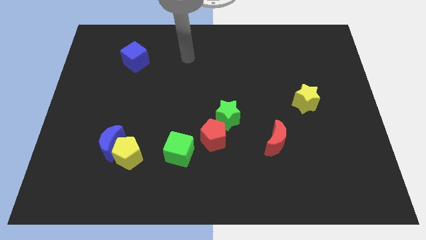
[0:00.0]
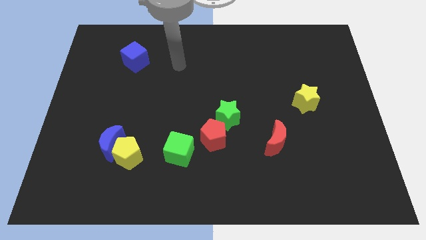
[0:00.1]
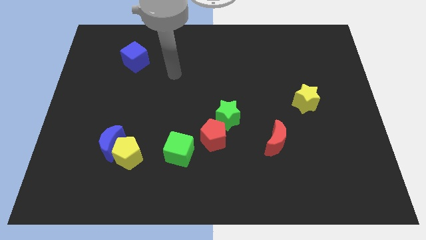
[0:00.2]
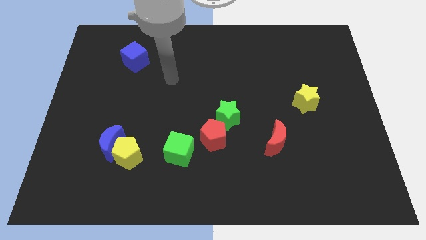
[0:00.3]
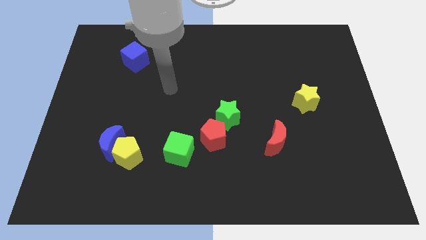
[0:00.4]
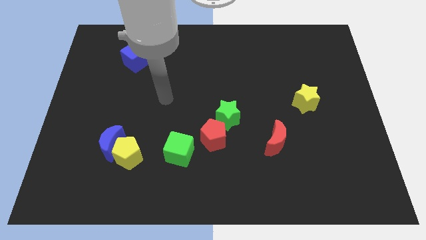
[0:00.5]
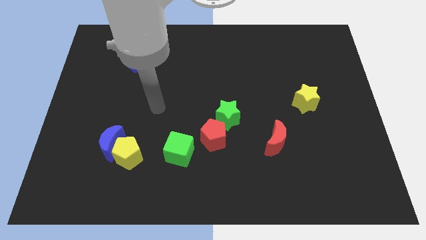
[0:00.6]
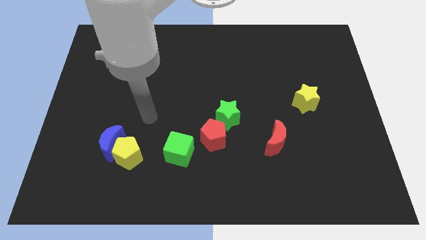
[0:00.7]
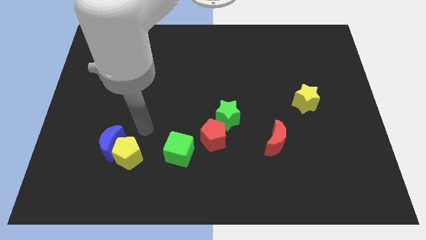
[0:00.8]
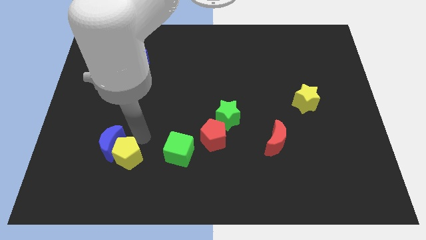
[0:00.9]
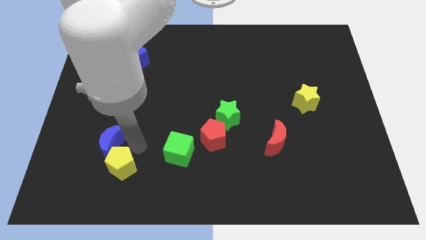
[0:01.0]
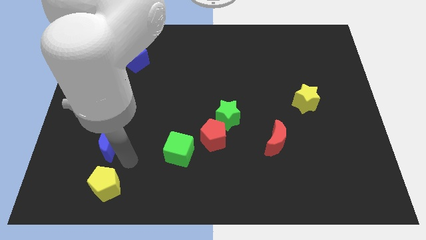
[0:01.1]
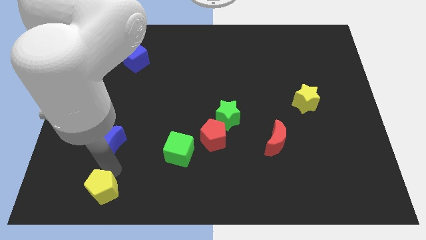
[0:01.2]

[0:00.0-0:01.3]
move the blue moon away from the yellow pentagon

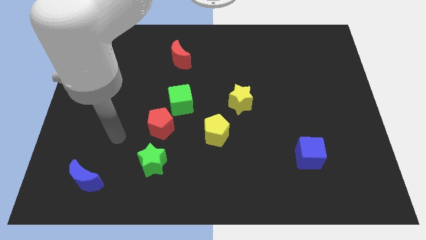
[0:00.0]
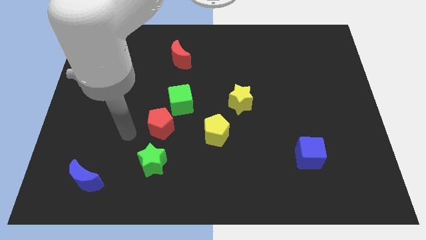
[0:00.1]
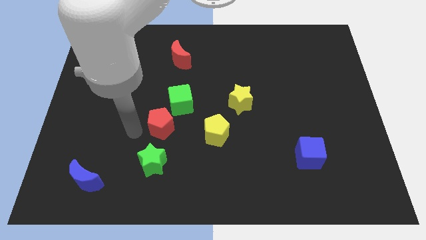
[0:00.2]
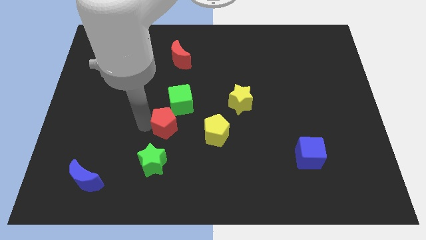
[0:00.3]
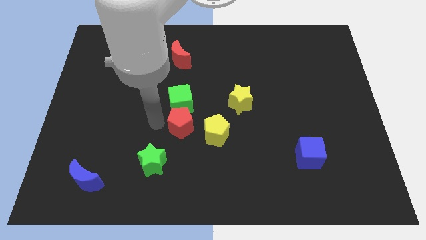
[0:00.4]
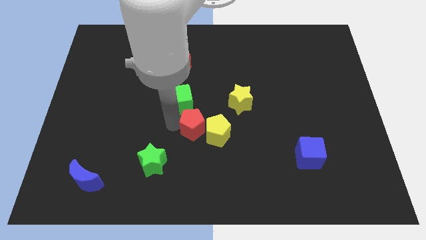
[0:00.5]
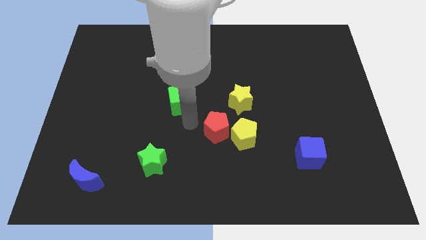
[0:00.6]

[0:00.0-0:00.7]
pull the green cube apart from the red pentagon

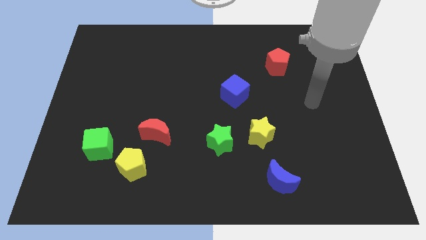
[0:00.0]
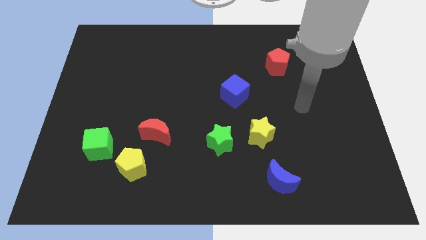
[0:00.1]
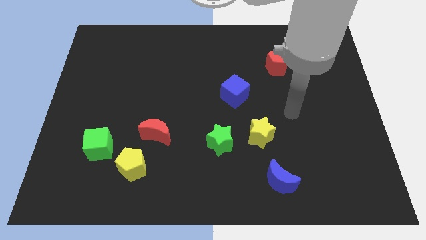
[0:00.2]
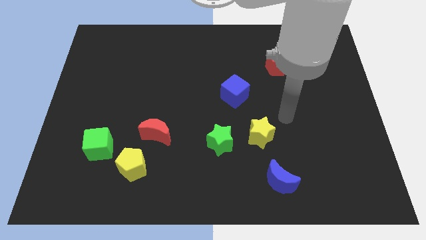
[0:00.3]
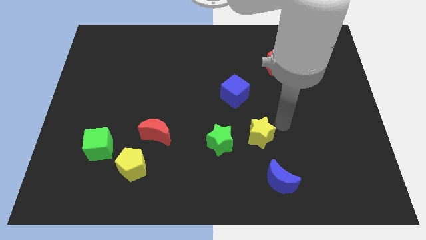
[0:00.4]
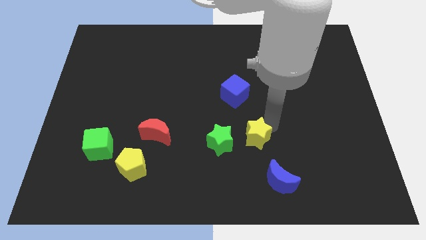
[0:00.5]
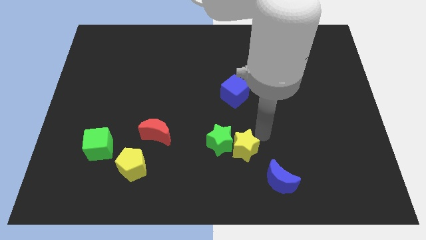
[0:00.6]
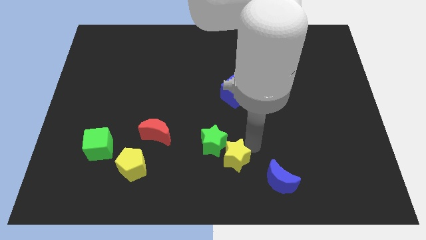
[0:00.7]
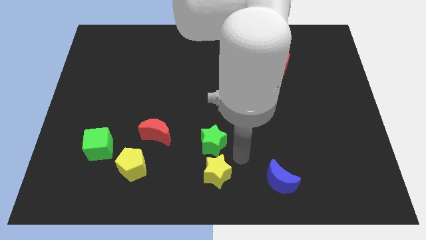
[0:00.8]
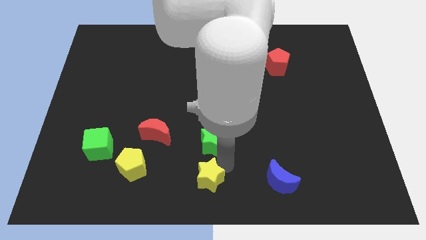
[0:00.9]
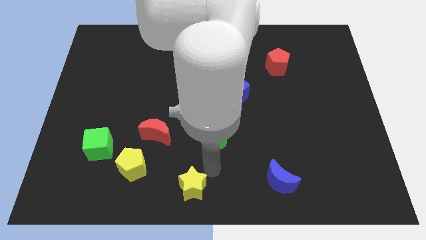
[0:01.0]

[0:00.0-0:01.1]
move the green star away from the yellow star

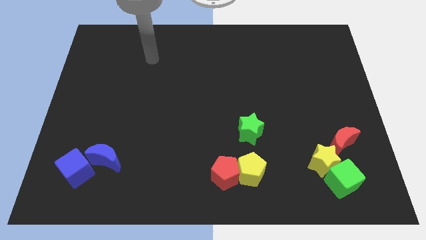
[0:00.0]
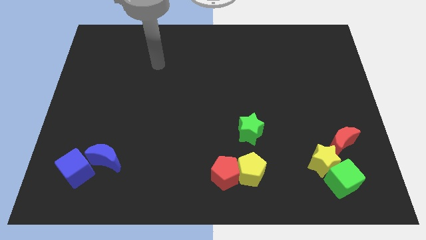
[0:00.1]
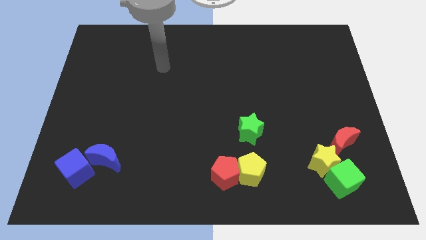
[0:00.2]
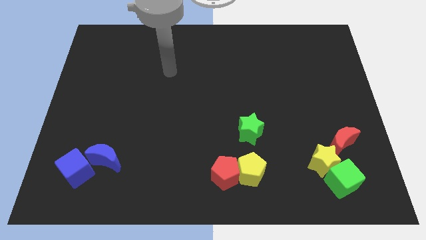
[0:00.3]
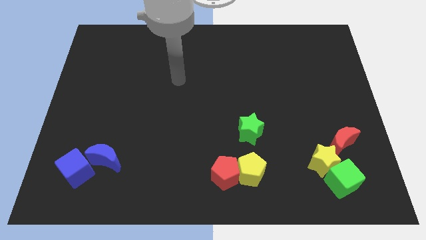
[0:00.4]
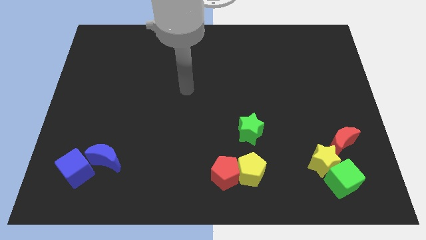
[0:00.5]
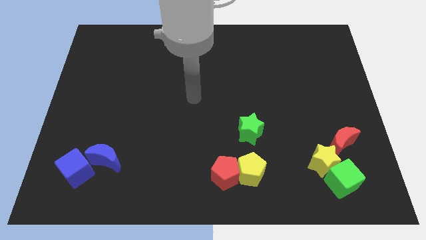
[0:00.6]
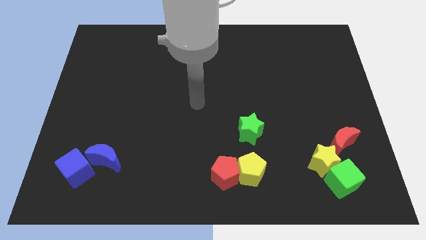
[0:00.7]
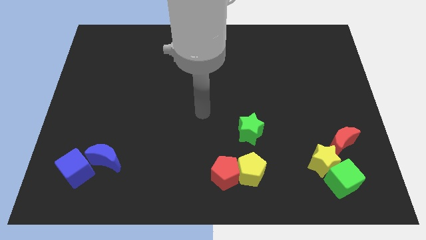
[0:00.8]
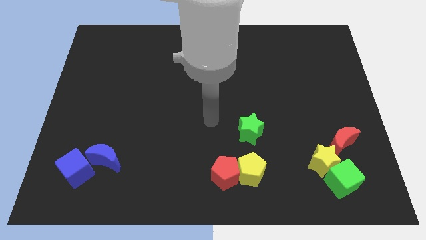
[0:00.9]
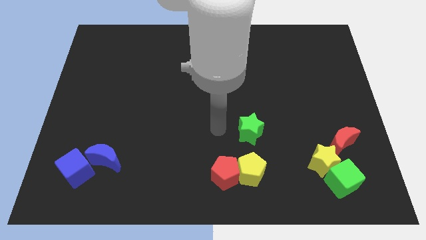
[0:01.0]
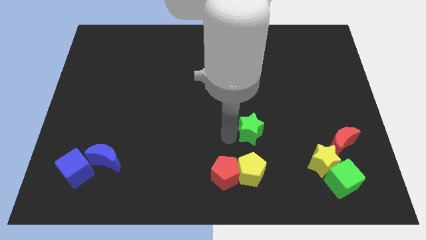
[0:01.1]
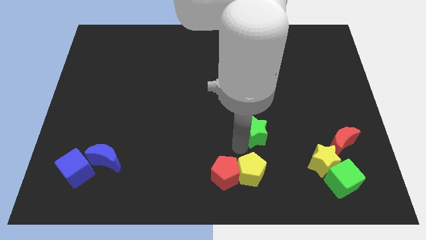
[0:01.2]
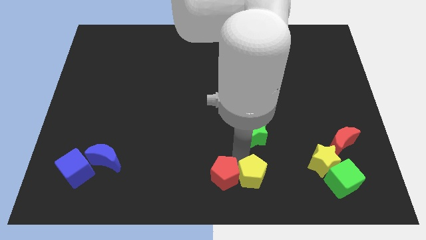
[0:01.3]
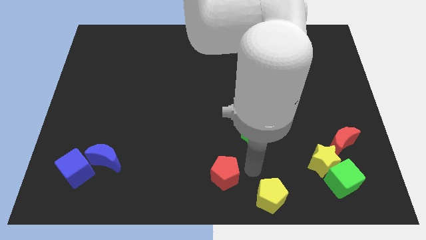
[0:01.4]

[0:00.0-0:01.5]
pull the red pentagon apart from the yellow pentagon

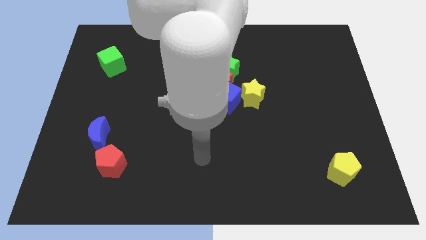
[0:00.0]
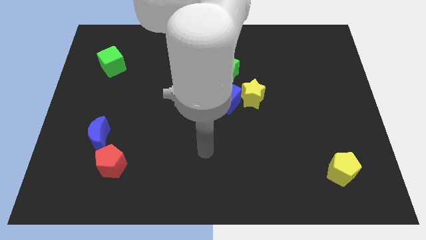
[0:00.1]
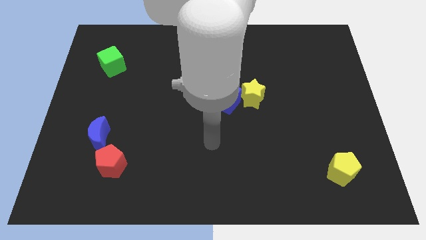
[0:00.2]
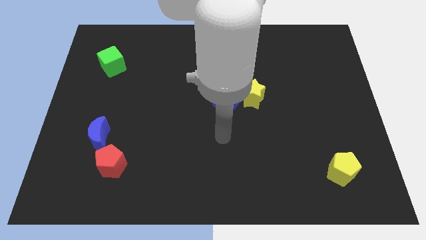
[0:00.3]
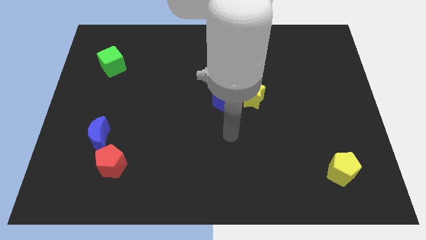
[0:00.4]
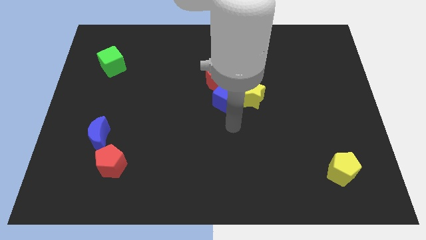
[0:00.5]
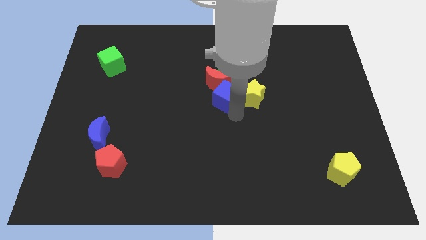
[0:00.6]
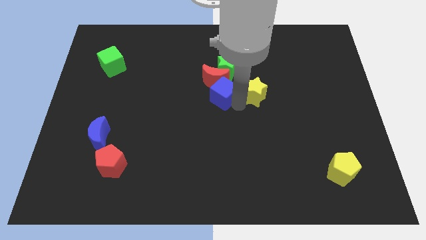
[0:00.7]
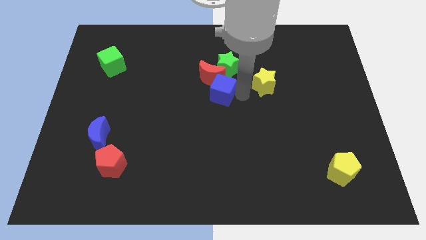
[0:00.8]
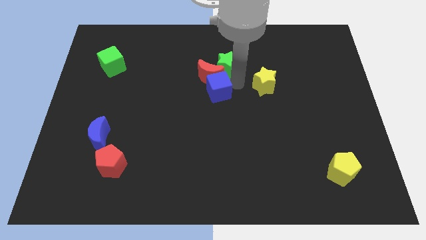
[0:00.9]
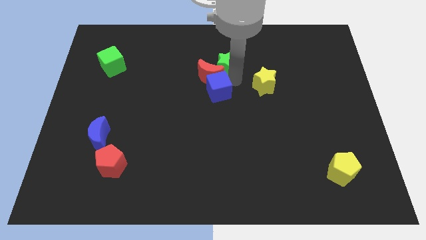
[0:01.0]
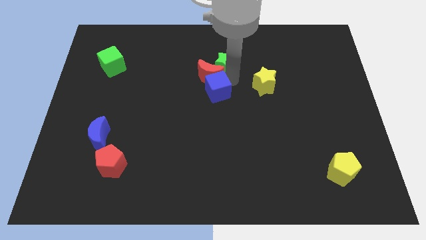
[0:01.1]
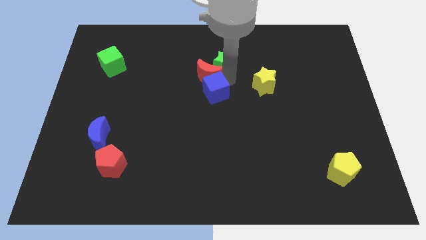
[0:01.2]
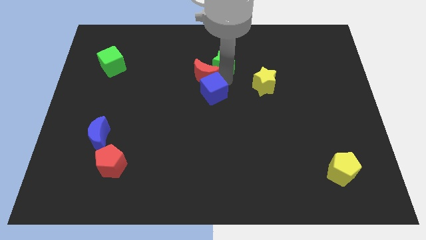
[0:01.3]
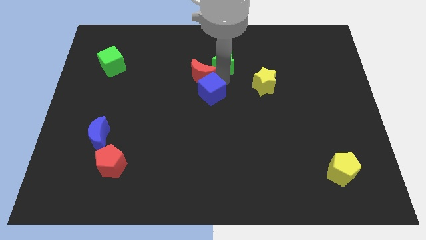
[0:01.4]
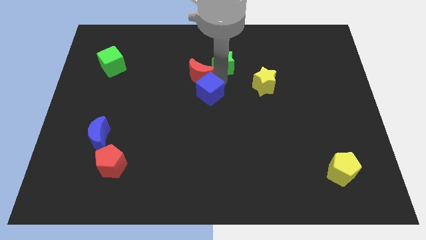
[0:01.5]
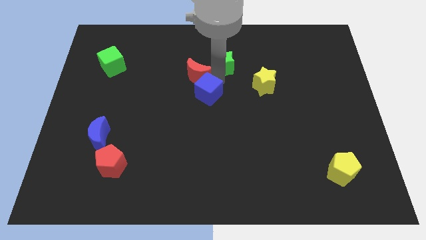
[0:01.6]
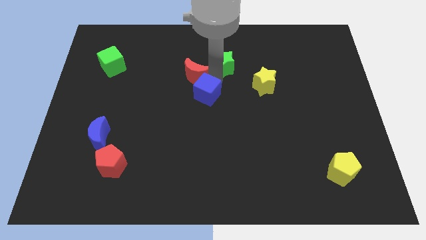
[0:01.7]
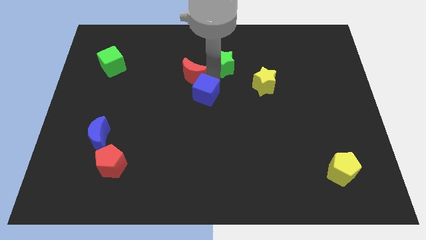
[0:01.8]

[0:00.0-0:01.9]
pull the red moon apart from the group of blocks

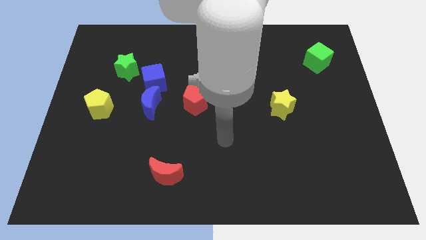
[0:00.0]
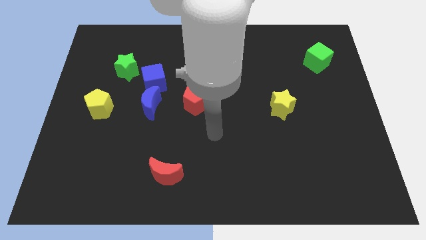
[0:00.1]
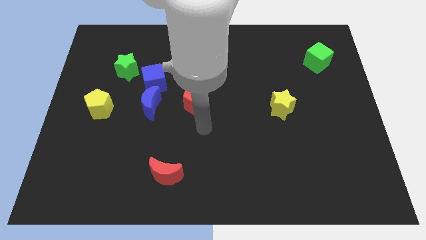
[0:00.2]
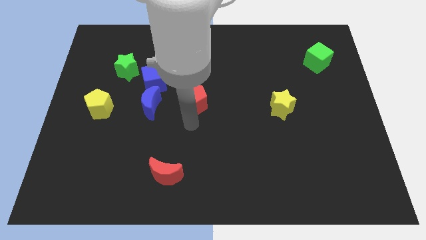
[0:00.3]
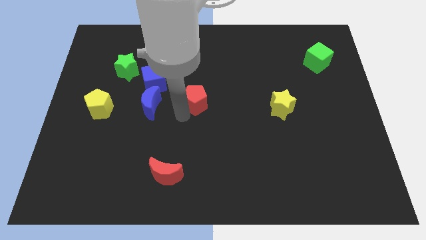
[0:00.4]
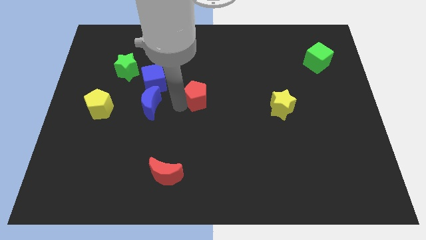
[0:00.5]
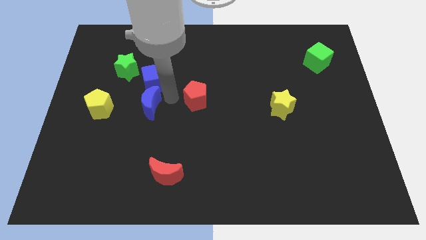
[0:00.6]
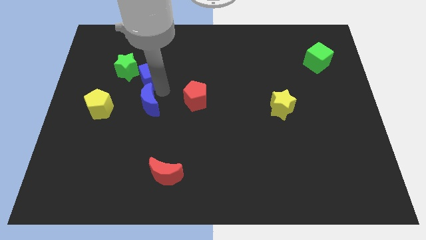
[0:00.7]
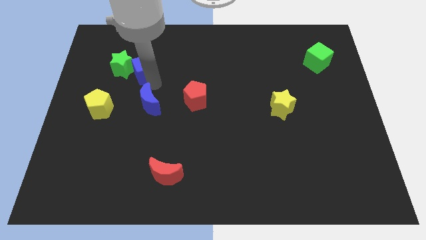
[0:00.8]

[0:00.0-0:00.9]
move the blue moon away from the blue cube

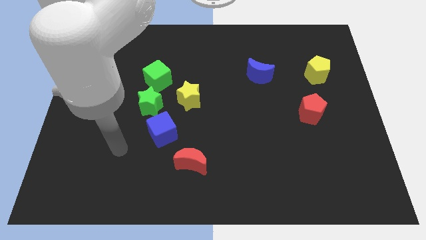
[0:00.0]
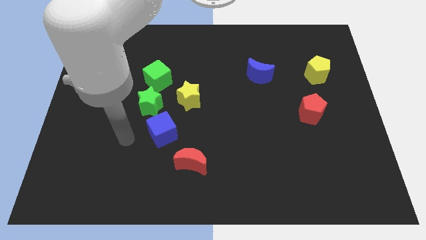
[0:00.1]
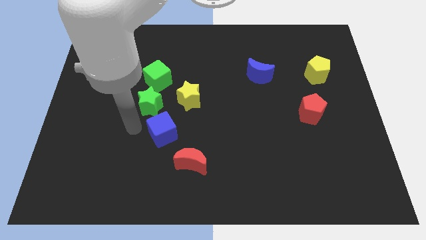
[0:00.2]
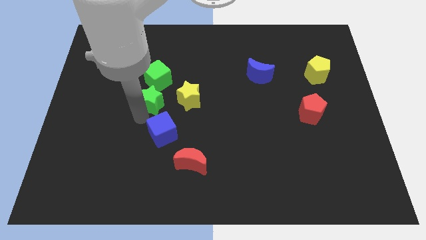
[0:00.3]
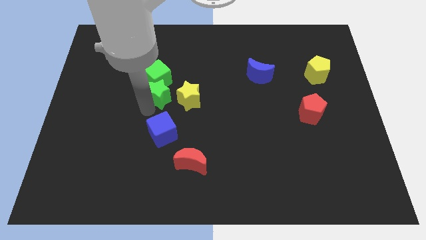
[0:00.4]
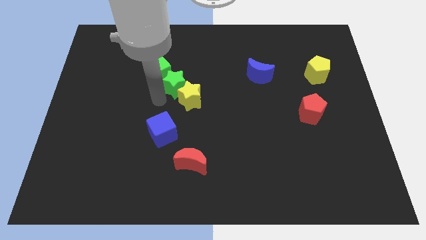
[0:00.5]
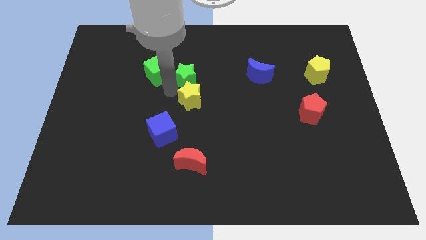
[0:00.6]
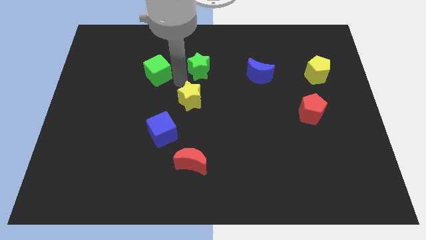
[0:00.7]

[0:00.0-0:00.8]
separate the green cube from the green star

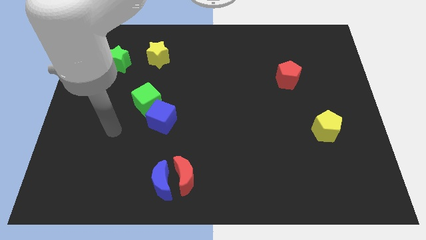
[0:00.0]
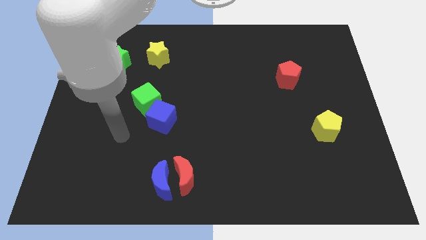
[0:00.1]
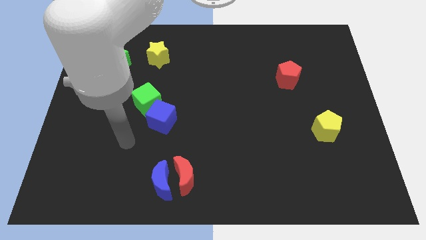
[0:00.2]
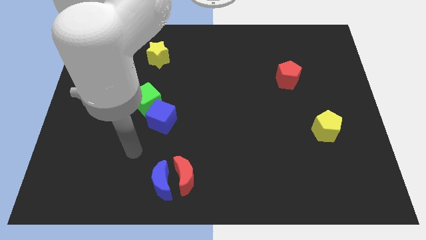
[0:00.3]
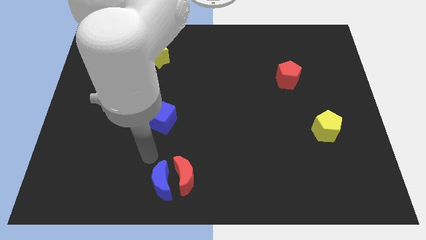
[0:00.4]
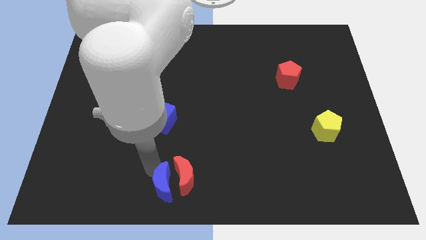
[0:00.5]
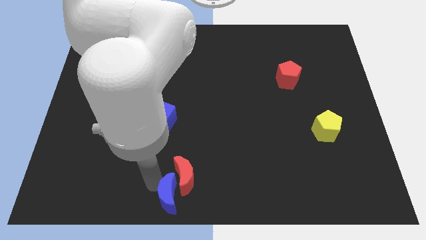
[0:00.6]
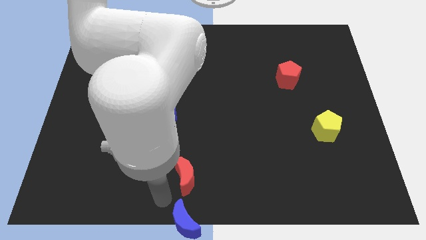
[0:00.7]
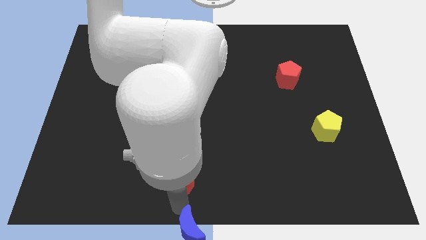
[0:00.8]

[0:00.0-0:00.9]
pull the red moon apart from the blue moon

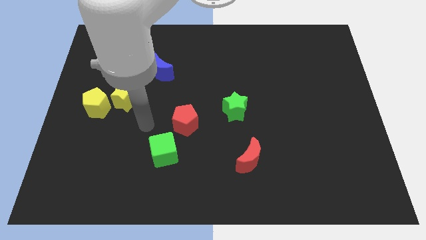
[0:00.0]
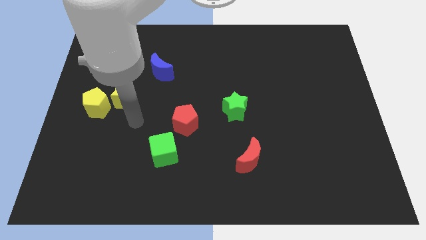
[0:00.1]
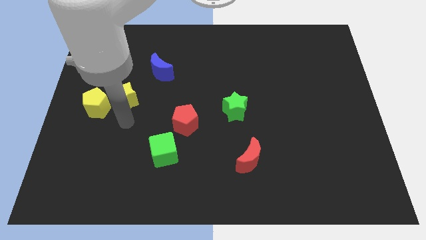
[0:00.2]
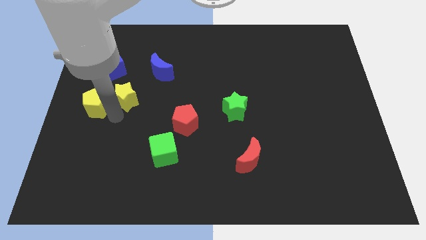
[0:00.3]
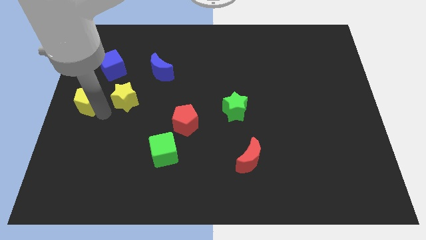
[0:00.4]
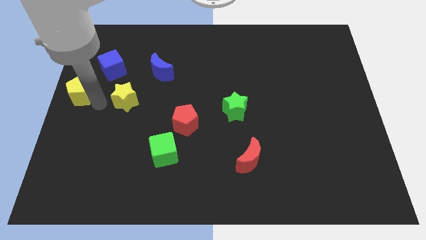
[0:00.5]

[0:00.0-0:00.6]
separate the yellow star from the yellow pentagon
